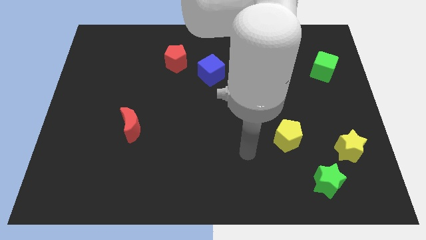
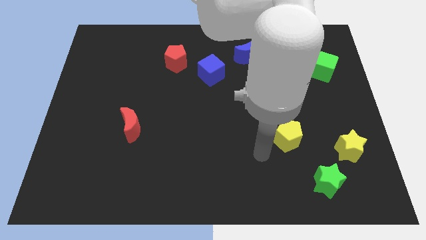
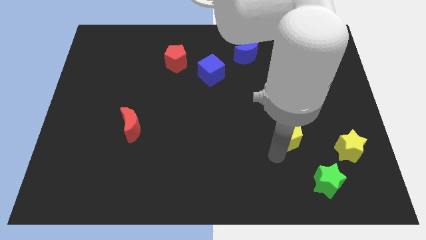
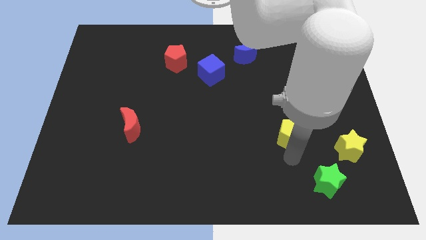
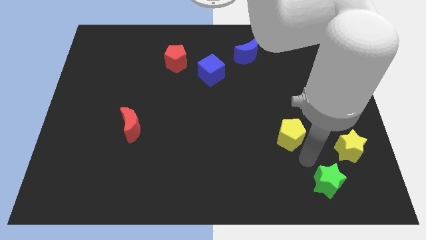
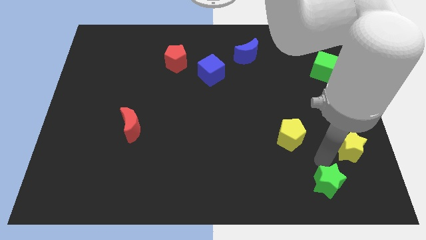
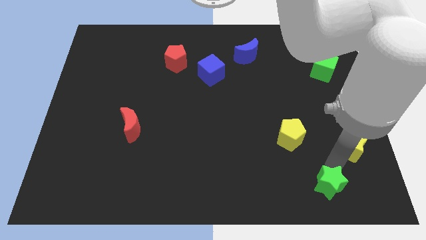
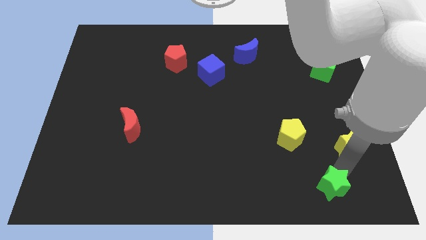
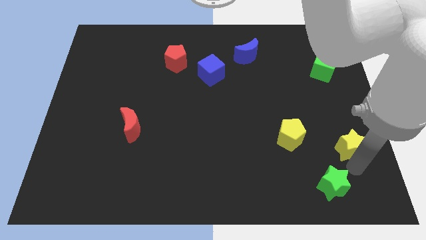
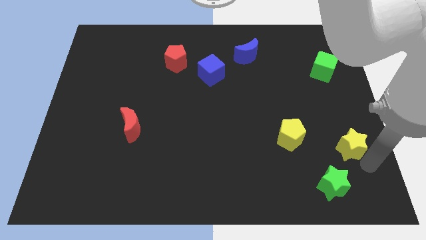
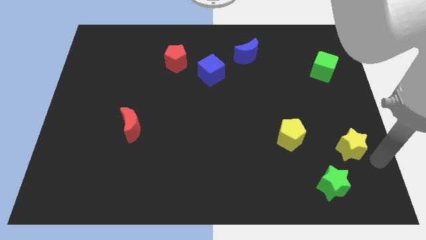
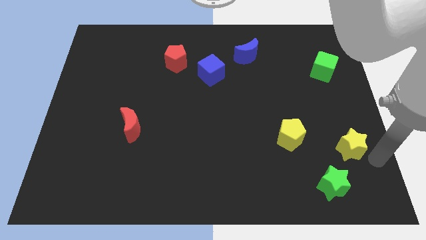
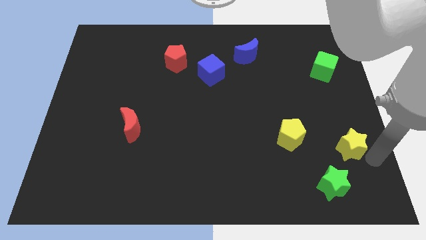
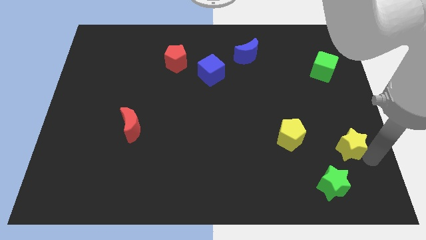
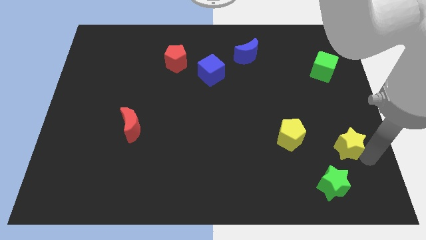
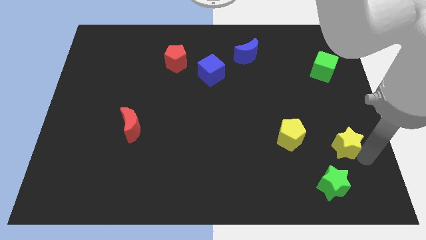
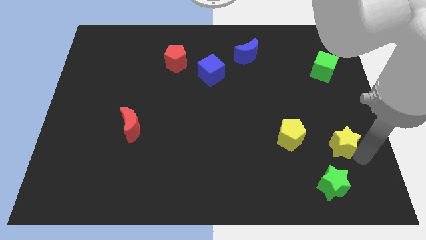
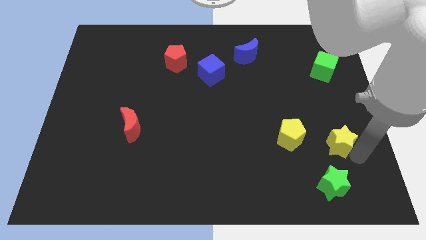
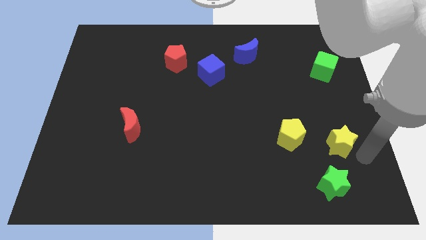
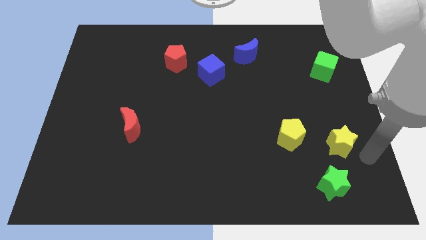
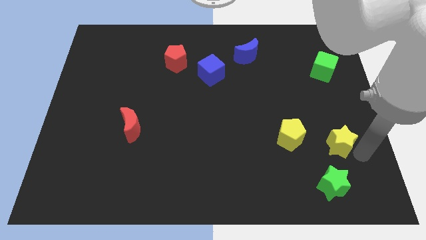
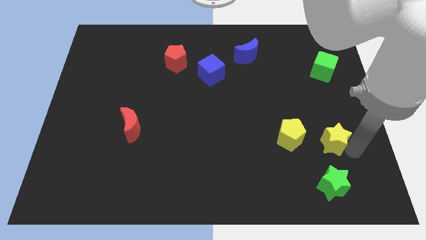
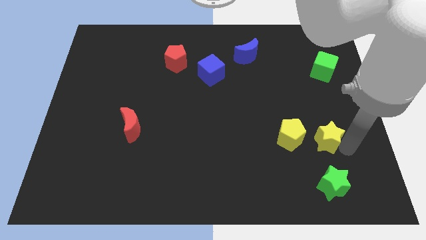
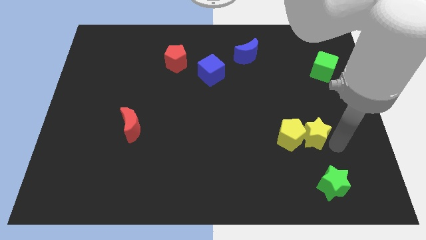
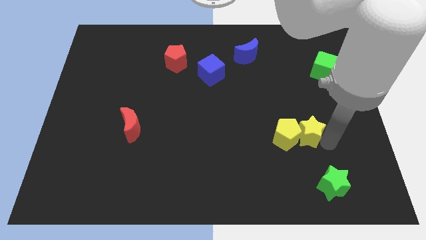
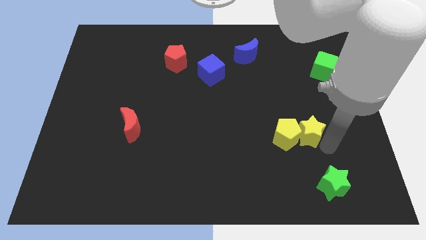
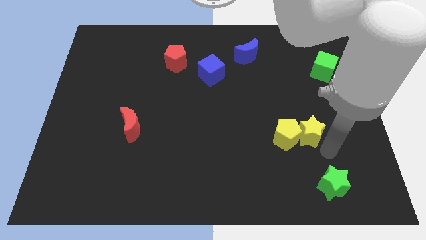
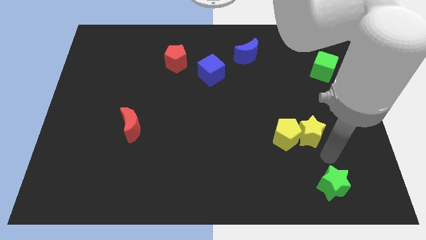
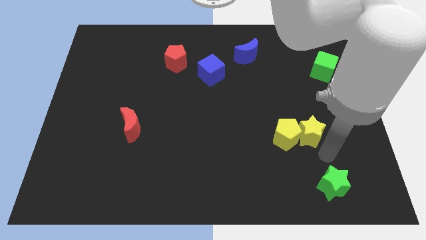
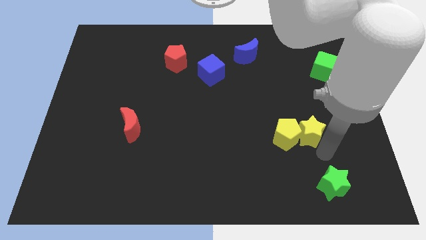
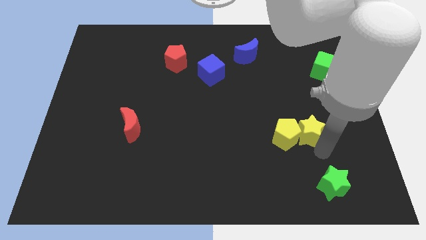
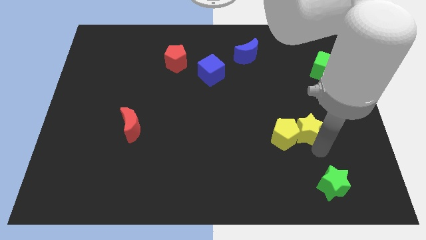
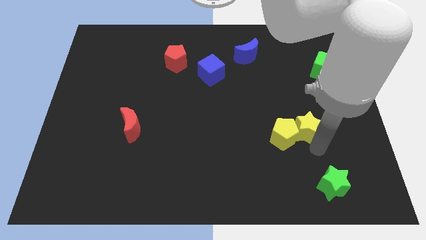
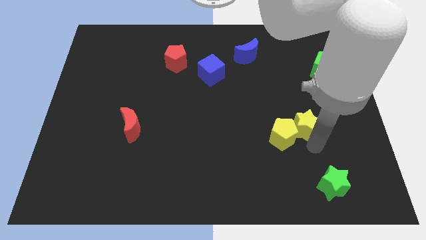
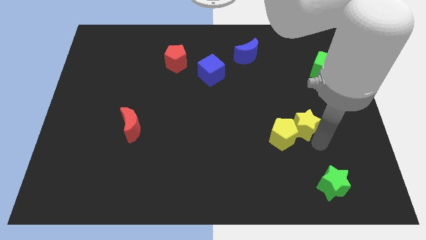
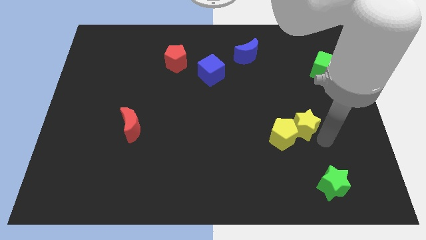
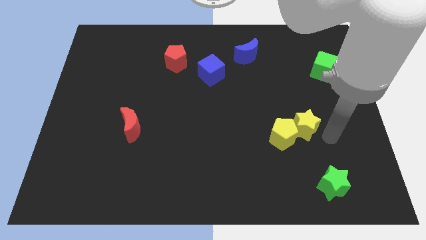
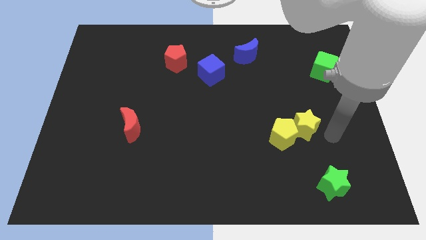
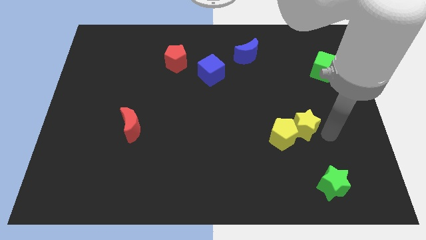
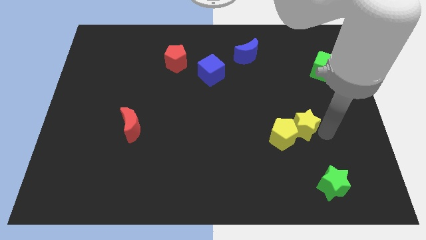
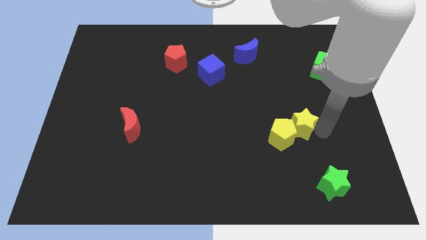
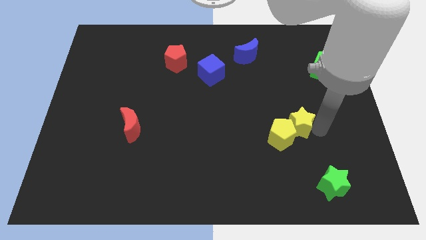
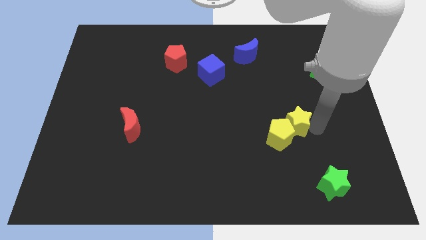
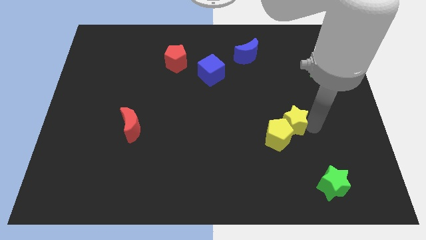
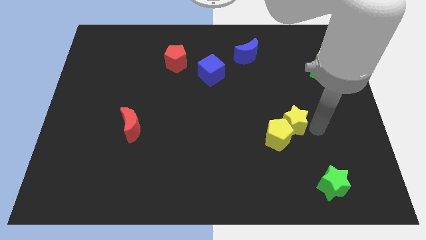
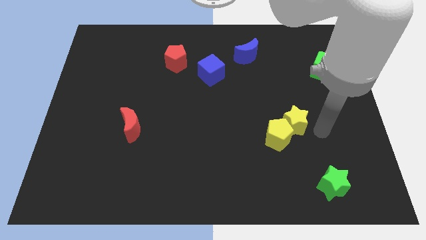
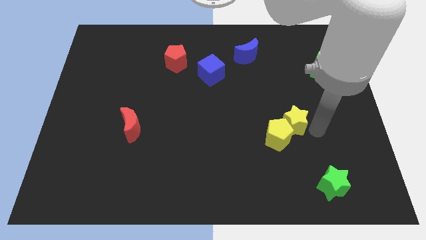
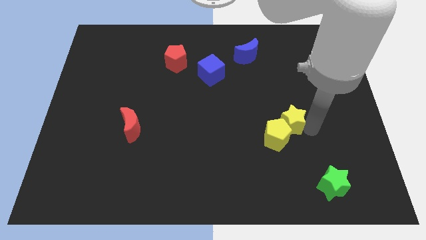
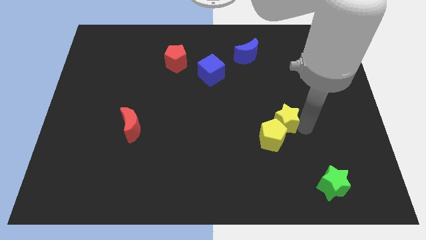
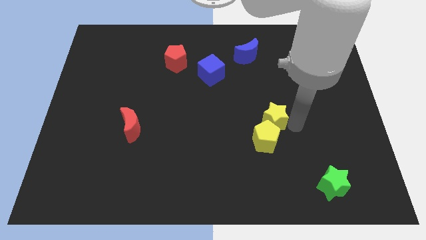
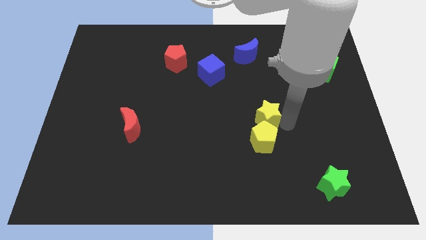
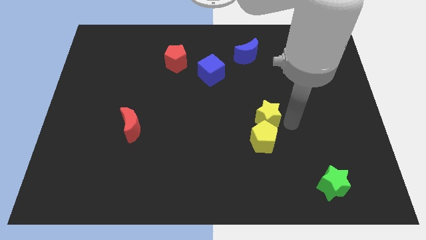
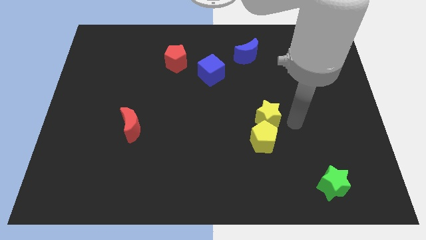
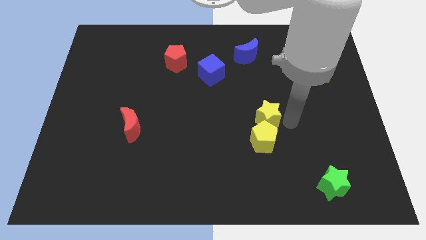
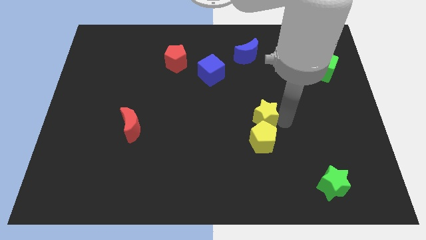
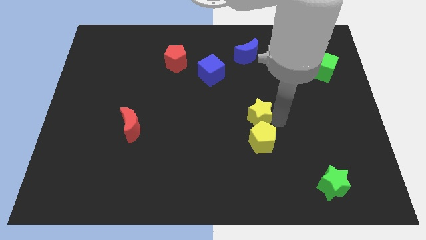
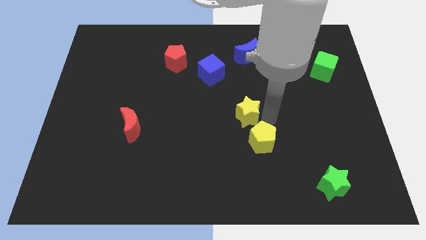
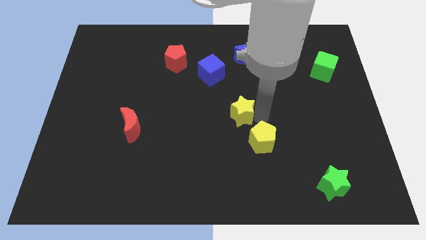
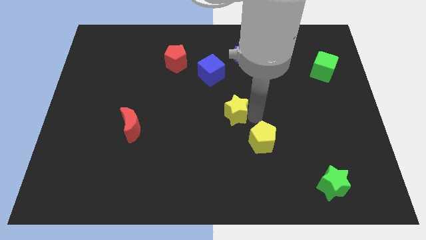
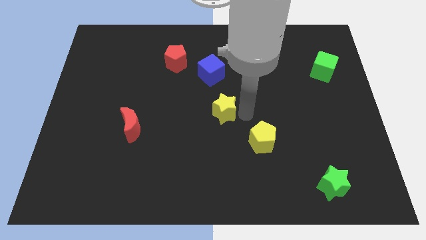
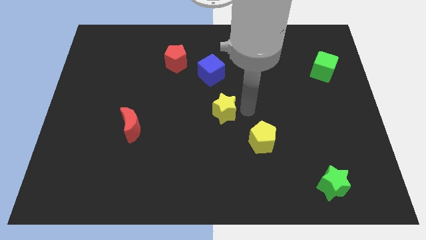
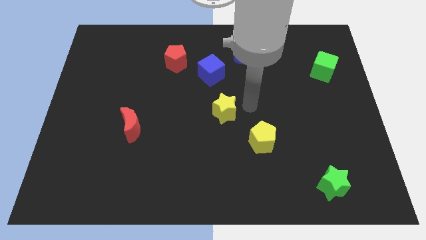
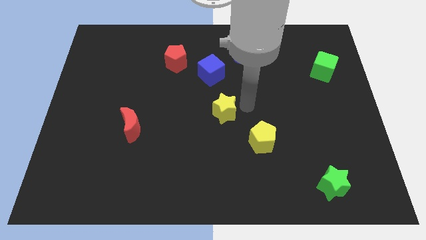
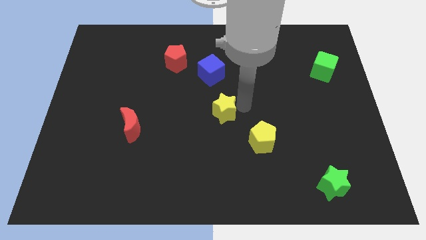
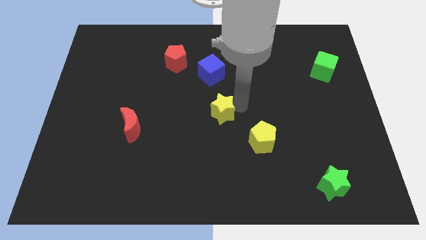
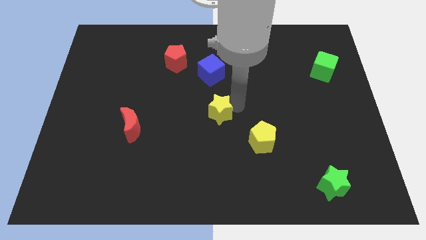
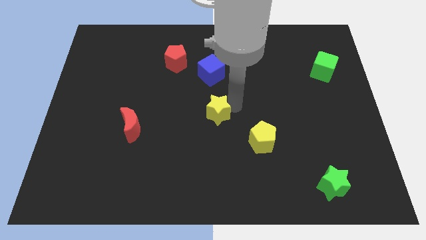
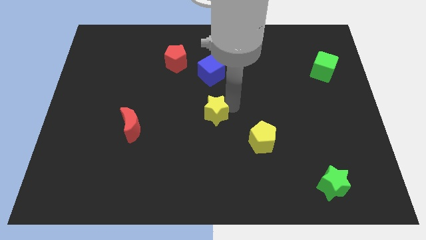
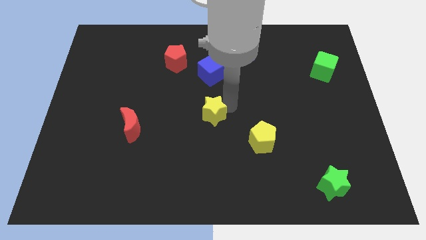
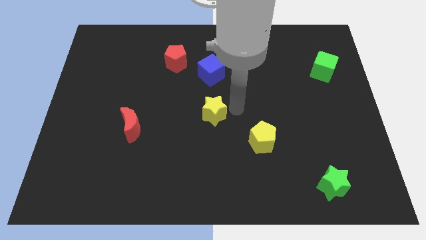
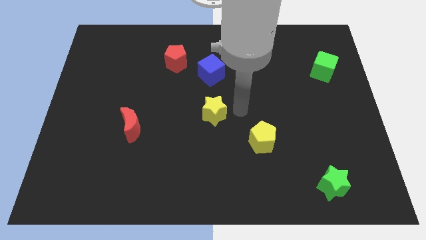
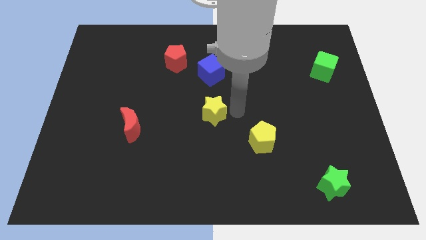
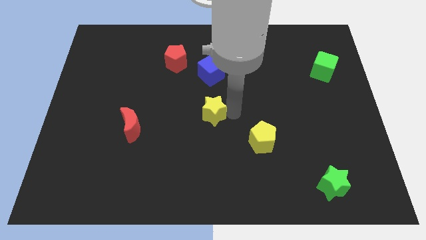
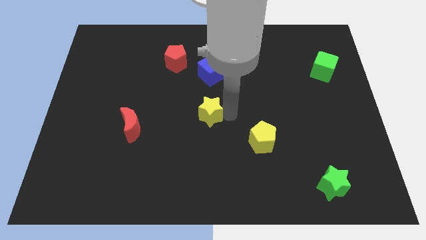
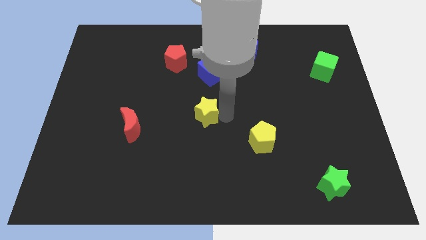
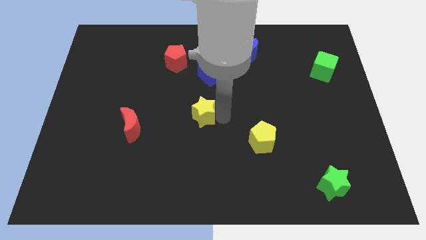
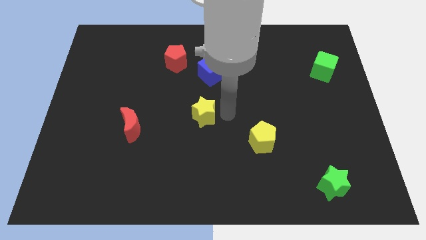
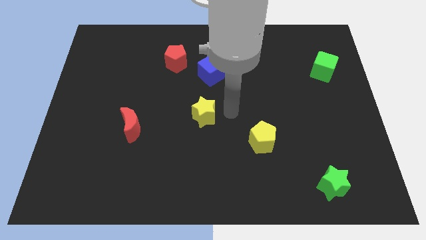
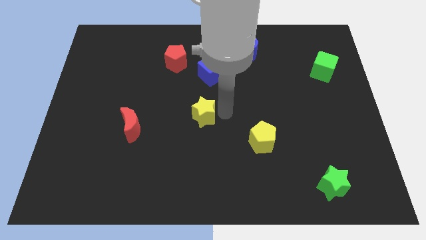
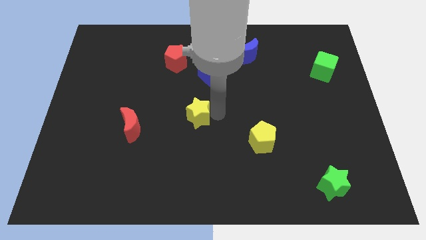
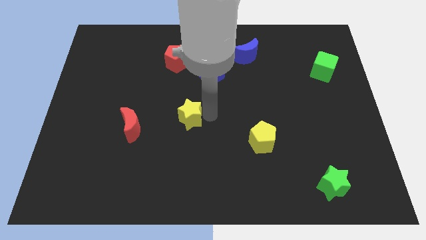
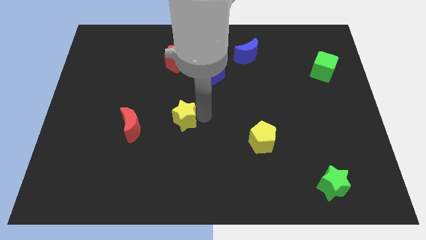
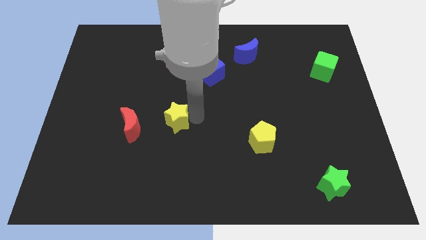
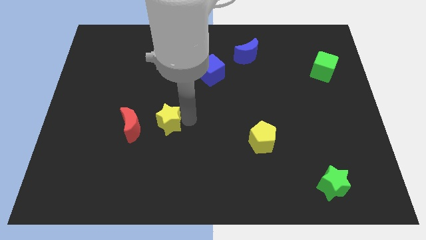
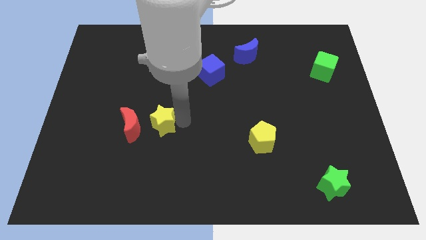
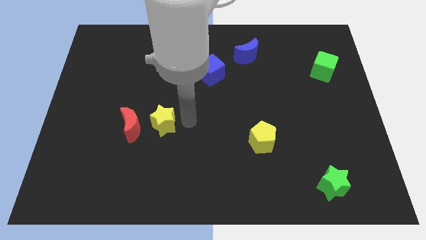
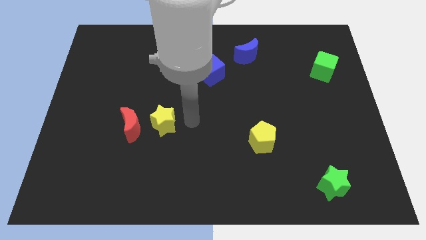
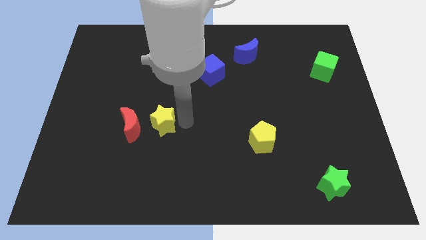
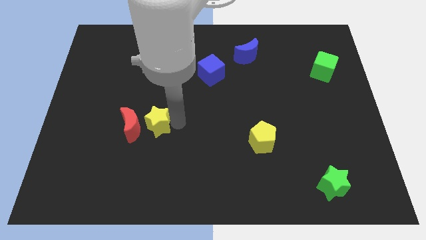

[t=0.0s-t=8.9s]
push the yellow star to the red moon
